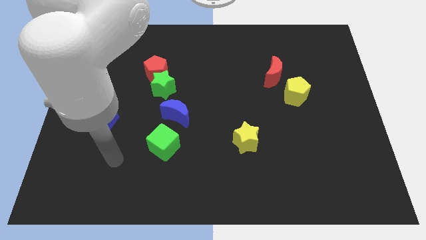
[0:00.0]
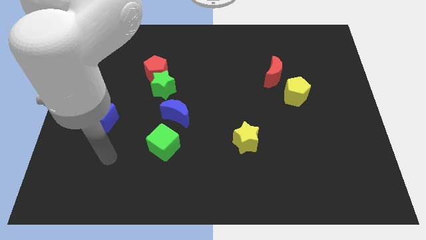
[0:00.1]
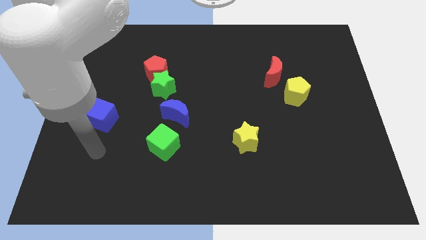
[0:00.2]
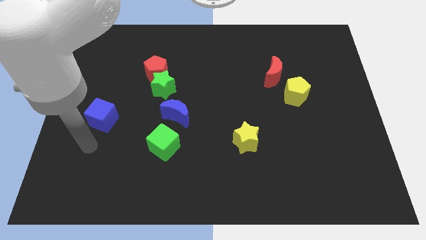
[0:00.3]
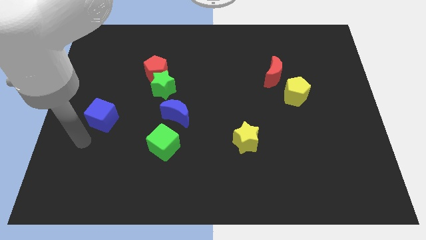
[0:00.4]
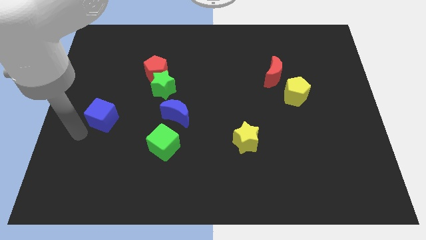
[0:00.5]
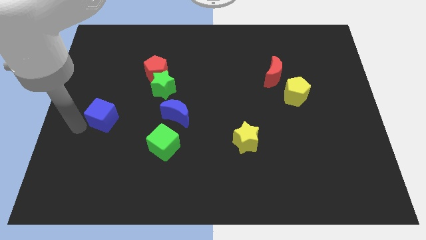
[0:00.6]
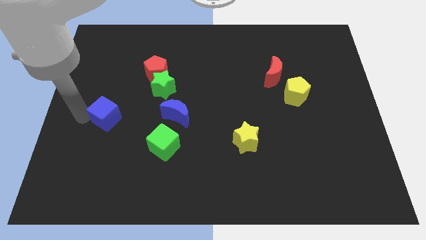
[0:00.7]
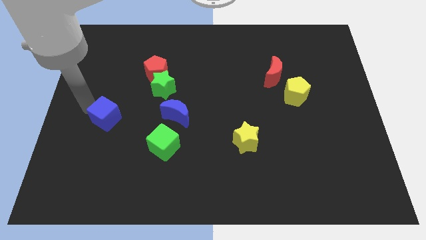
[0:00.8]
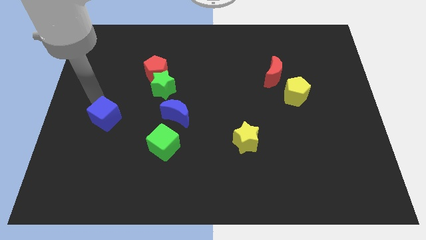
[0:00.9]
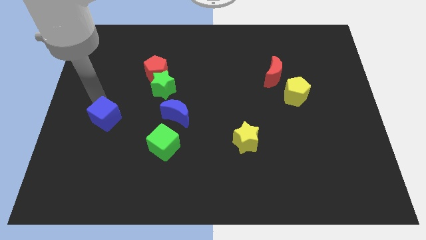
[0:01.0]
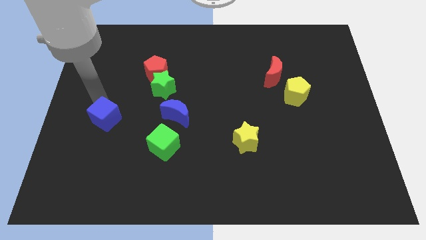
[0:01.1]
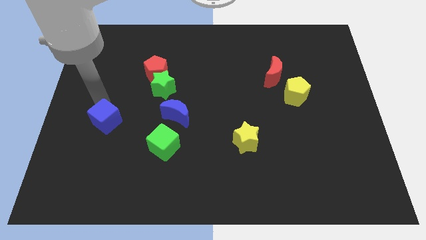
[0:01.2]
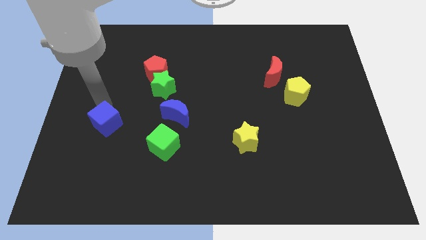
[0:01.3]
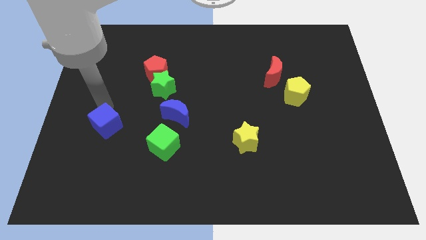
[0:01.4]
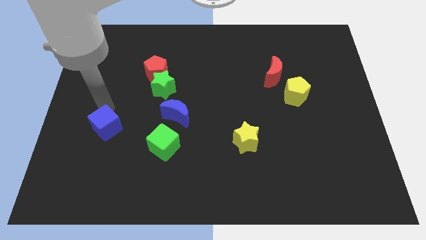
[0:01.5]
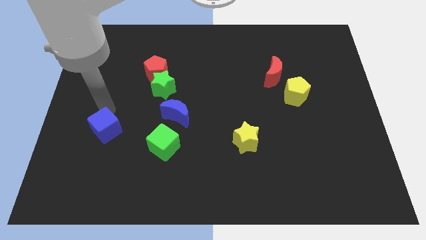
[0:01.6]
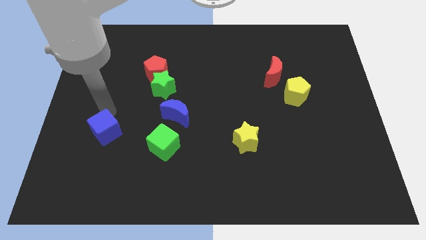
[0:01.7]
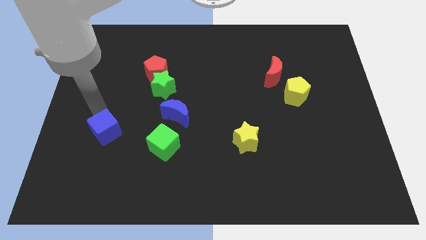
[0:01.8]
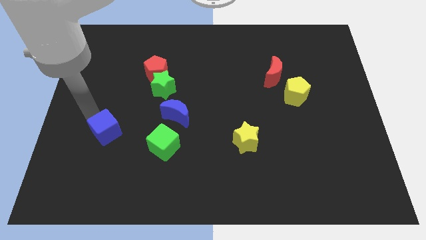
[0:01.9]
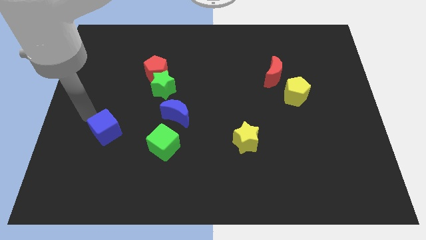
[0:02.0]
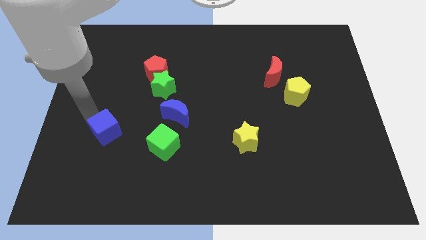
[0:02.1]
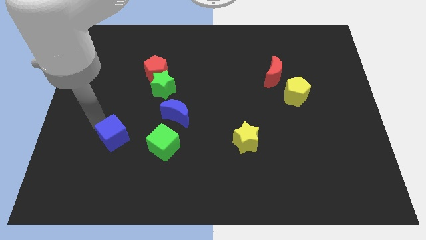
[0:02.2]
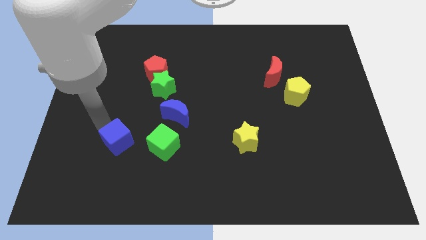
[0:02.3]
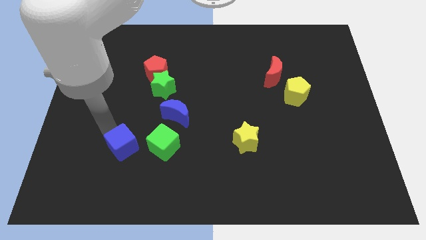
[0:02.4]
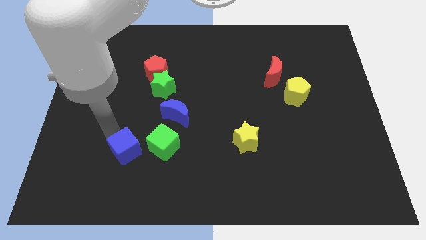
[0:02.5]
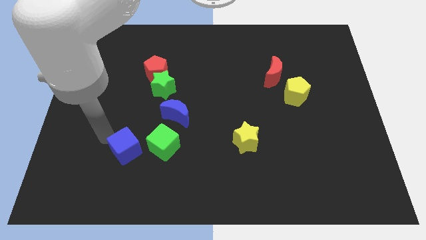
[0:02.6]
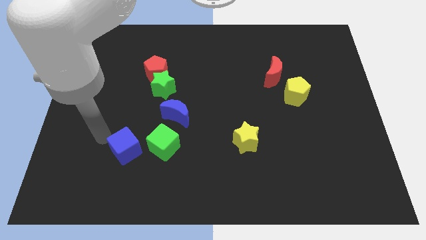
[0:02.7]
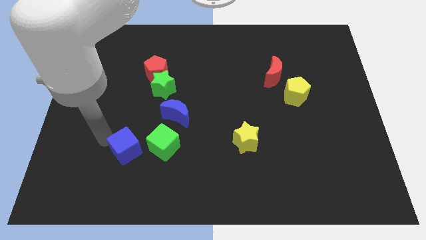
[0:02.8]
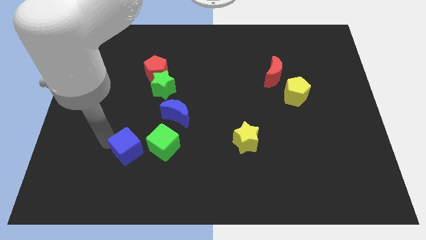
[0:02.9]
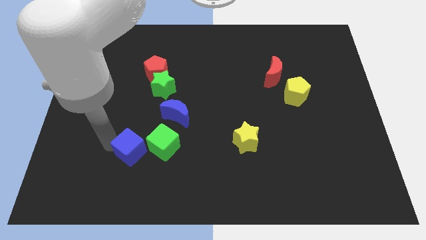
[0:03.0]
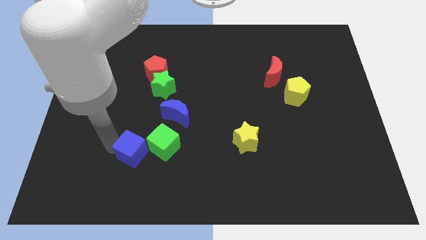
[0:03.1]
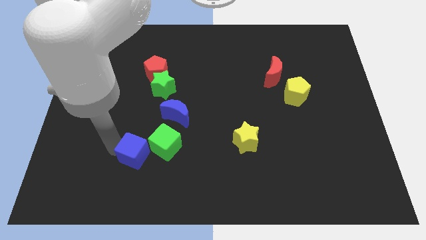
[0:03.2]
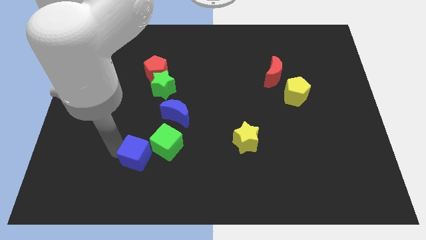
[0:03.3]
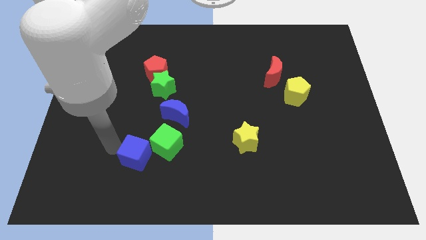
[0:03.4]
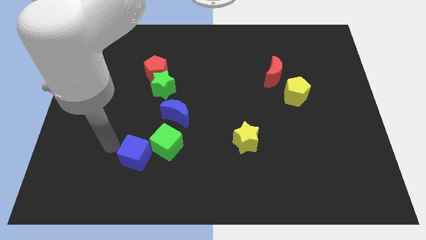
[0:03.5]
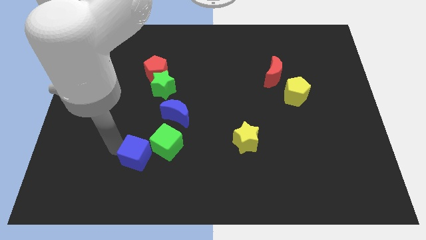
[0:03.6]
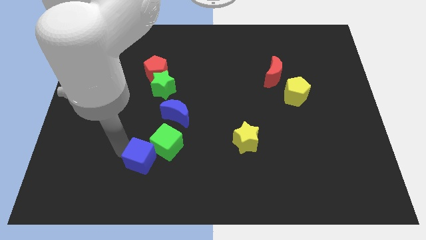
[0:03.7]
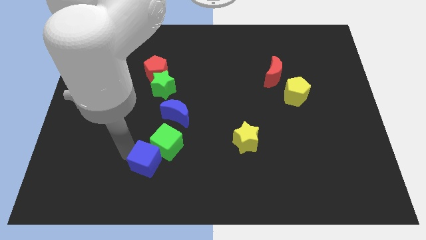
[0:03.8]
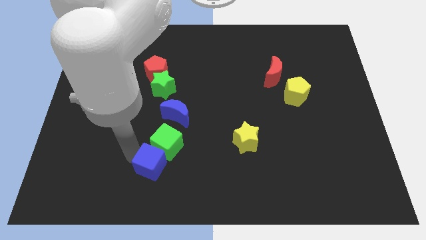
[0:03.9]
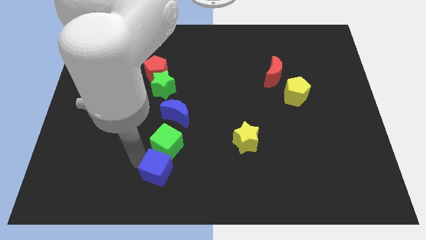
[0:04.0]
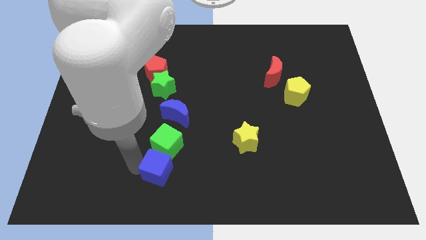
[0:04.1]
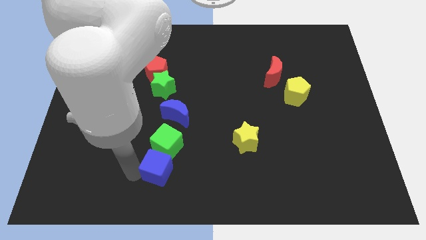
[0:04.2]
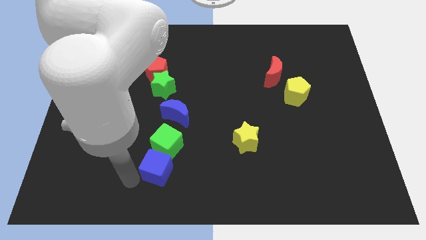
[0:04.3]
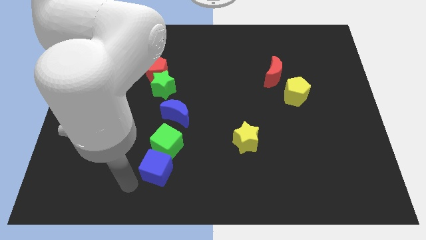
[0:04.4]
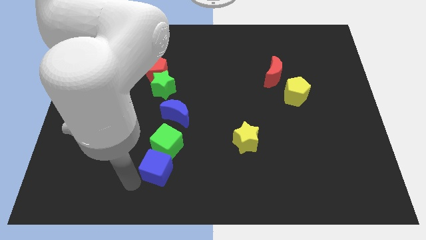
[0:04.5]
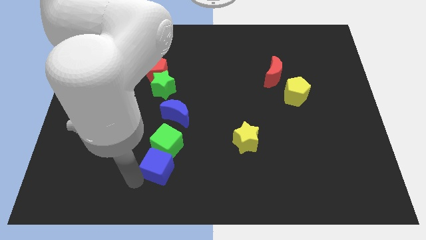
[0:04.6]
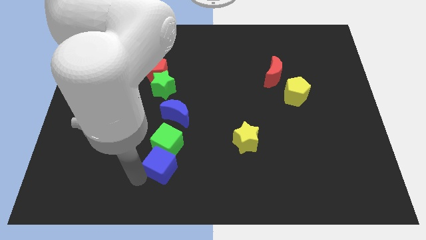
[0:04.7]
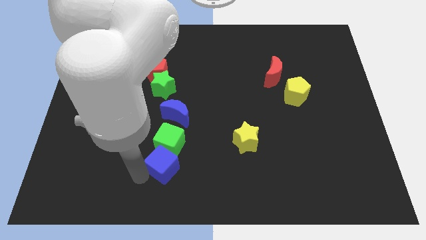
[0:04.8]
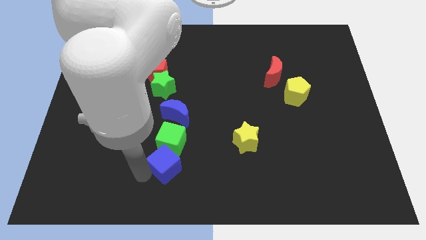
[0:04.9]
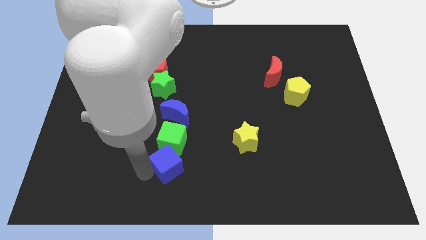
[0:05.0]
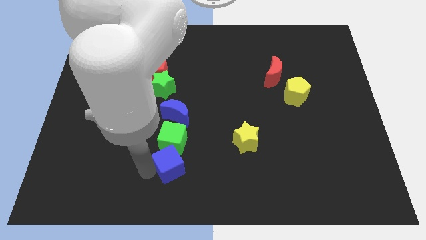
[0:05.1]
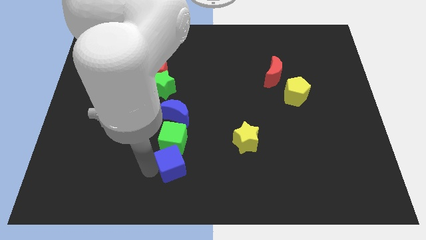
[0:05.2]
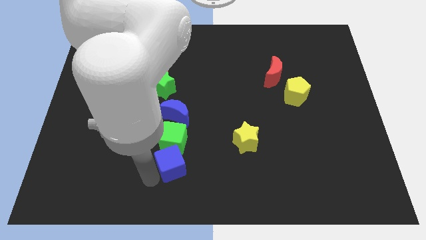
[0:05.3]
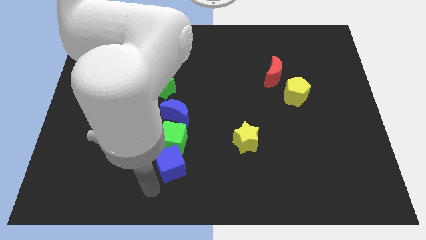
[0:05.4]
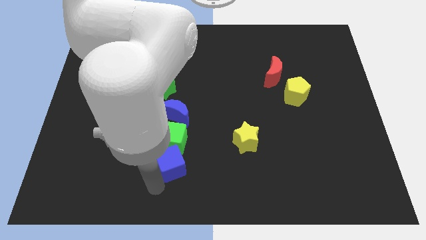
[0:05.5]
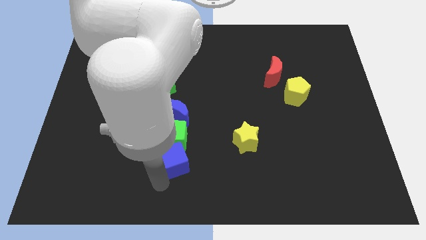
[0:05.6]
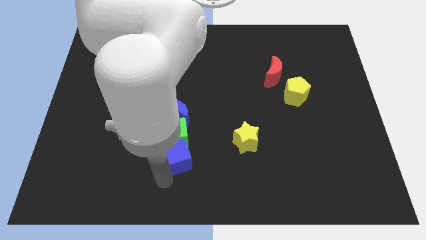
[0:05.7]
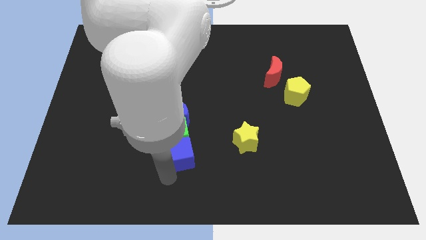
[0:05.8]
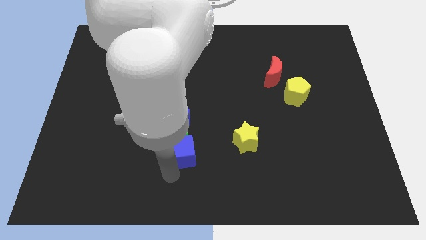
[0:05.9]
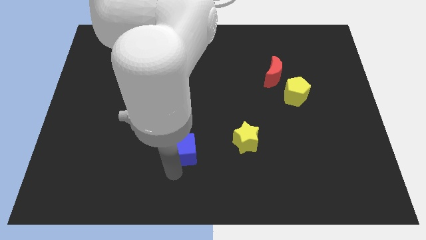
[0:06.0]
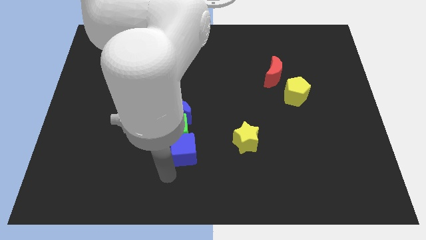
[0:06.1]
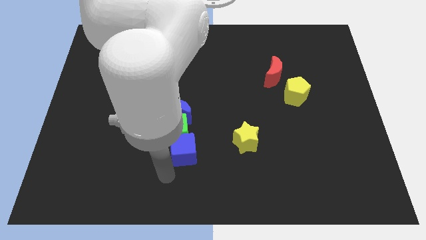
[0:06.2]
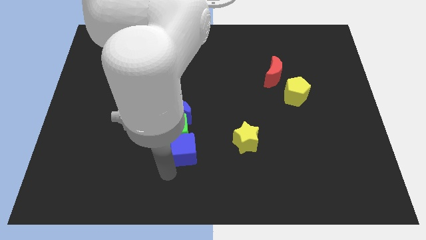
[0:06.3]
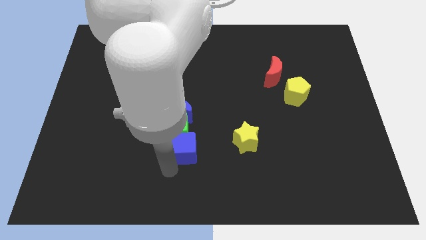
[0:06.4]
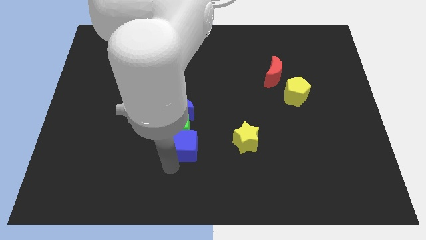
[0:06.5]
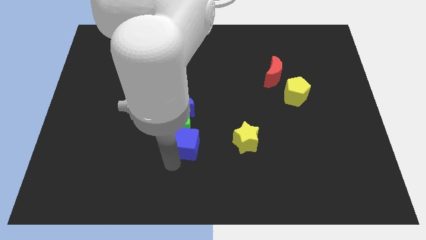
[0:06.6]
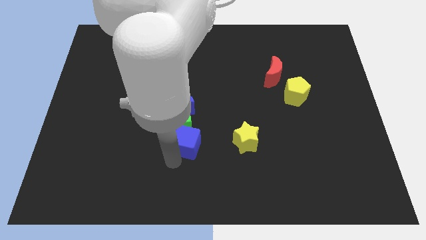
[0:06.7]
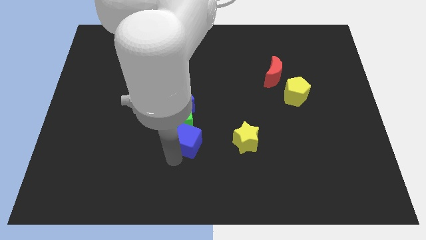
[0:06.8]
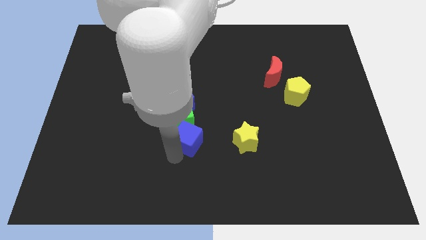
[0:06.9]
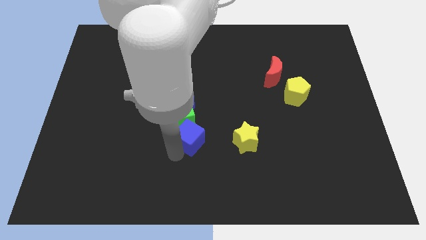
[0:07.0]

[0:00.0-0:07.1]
push the blue cube to the center of the board
